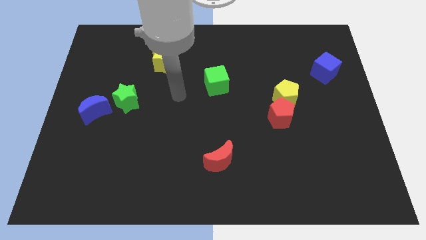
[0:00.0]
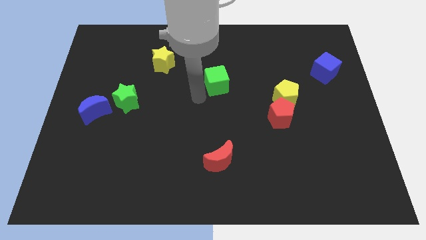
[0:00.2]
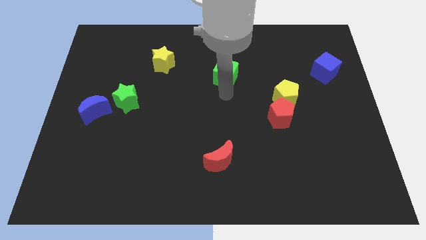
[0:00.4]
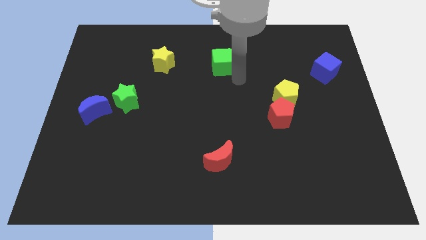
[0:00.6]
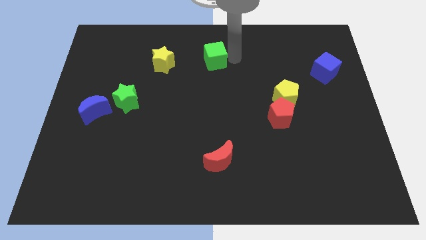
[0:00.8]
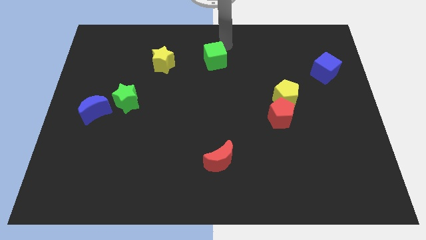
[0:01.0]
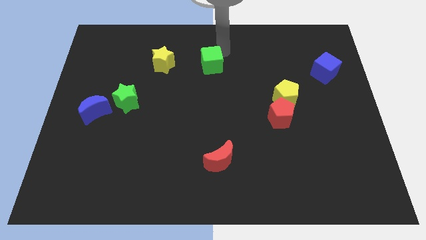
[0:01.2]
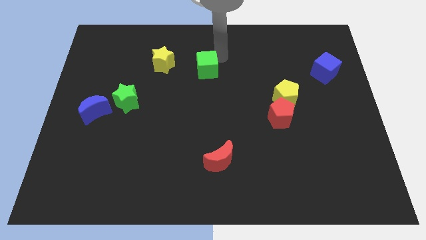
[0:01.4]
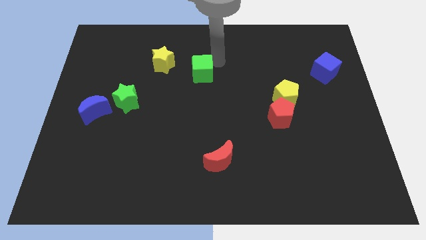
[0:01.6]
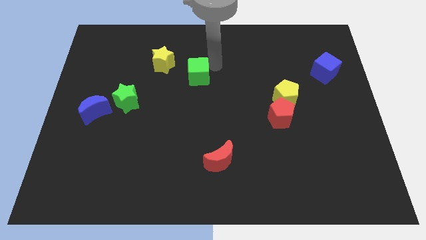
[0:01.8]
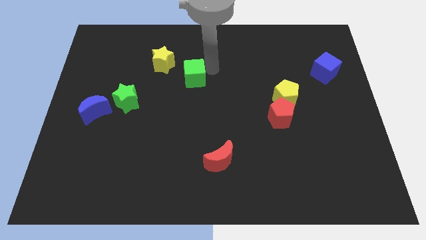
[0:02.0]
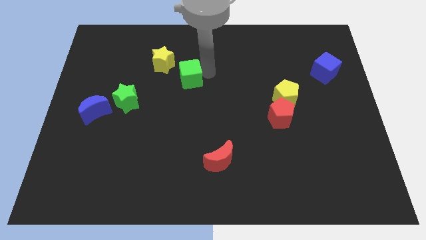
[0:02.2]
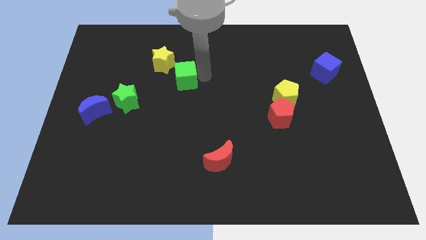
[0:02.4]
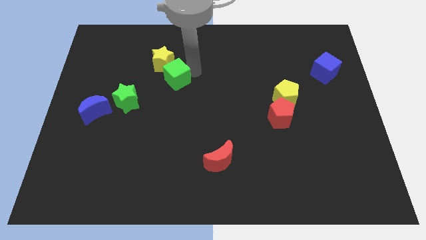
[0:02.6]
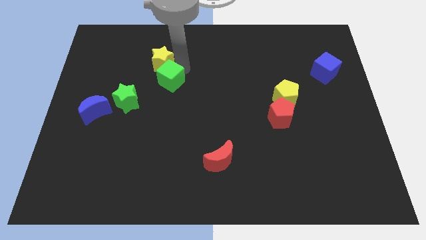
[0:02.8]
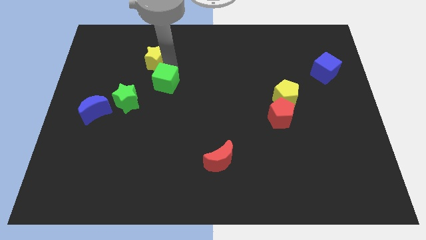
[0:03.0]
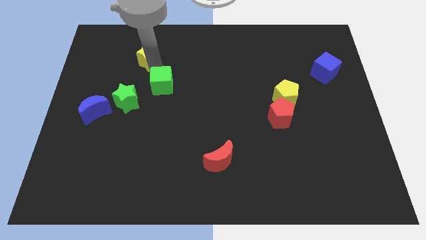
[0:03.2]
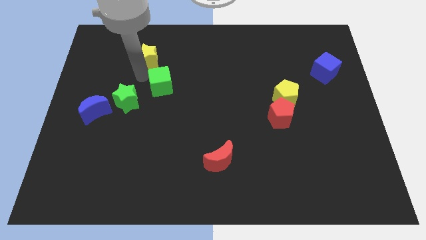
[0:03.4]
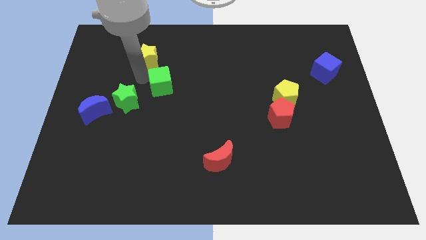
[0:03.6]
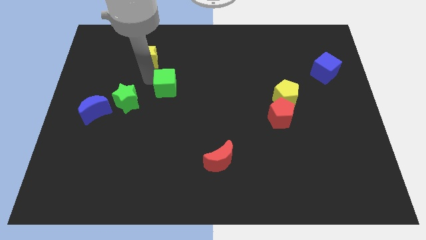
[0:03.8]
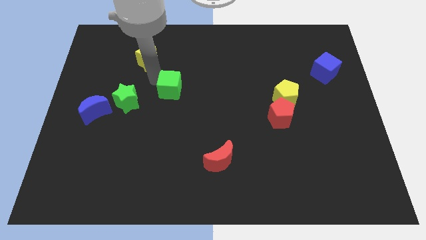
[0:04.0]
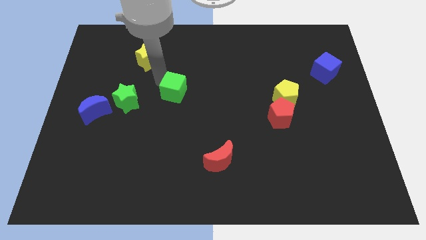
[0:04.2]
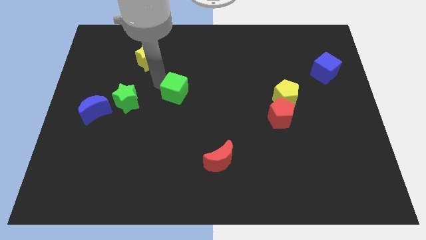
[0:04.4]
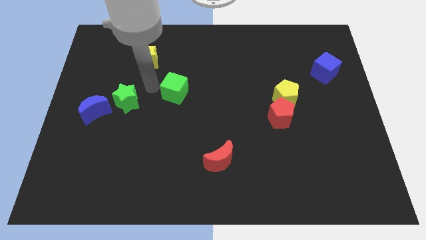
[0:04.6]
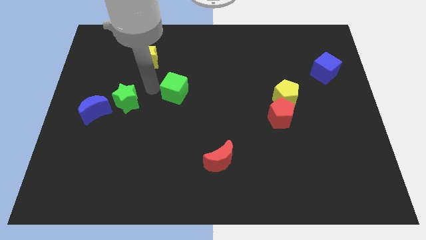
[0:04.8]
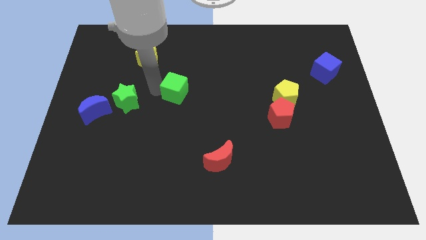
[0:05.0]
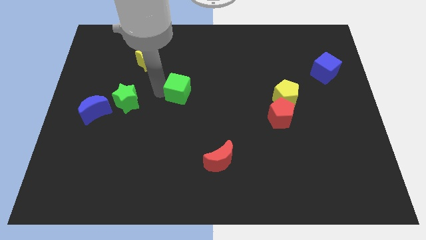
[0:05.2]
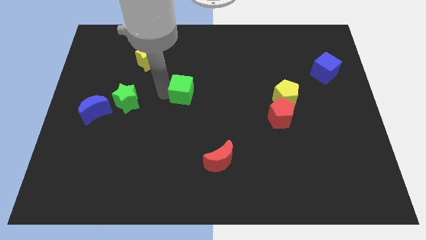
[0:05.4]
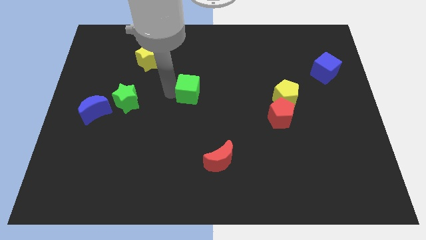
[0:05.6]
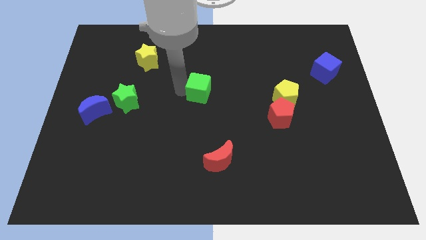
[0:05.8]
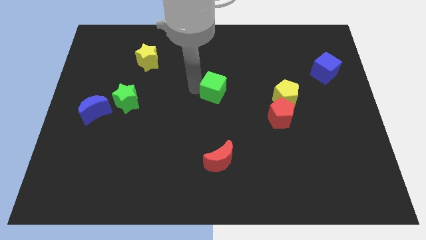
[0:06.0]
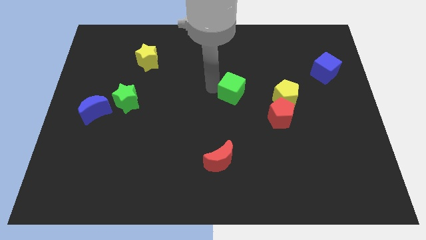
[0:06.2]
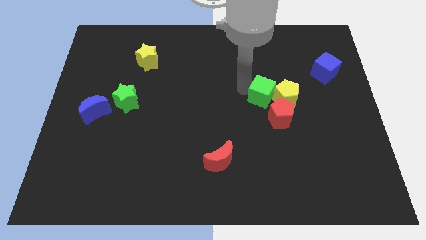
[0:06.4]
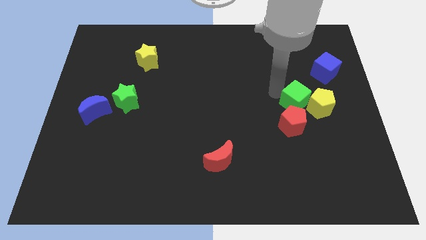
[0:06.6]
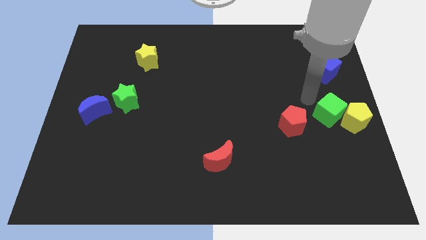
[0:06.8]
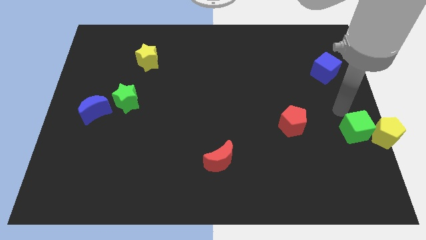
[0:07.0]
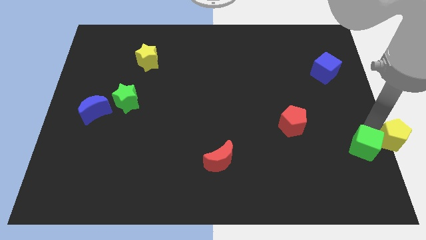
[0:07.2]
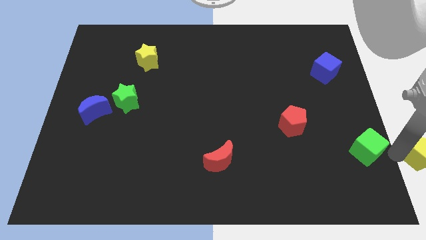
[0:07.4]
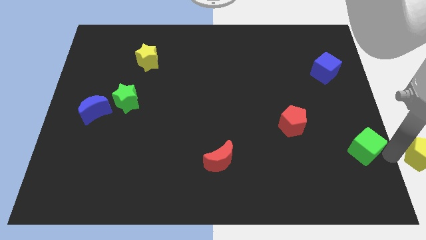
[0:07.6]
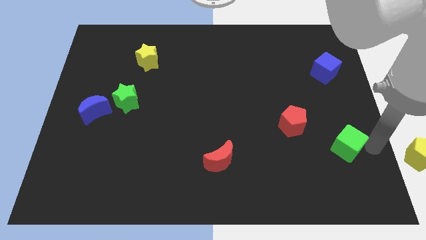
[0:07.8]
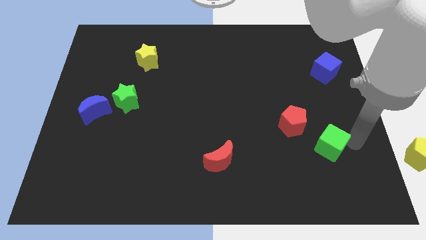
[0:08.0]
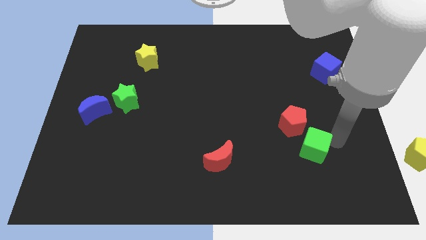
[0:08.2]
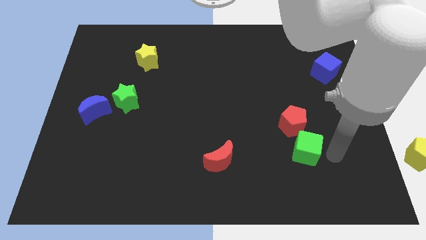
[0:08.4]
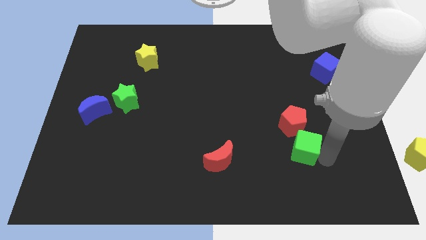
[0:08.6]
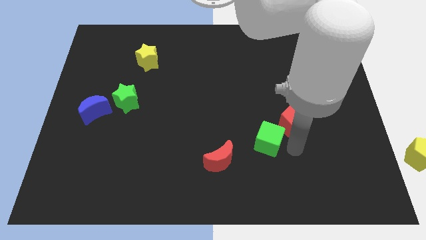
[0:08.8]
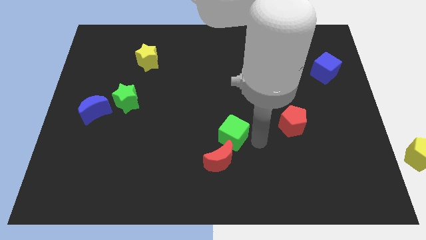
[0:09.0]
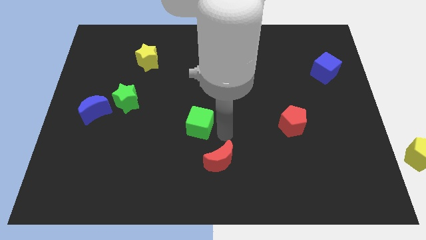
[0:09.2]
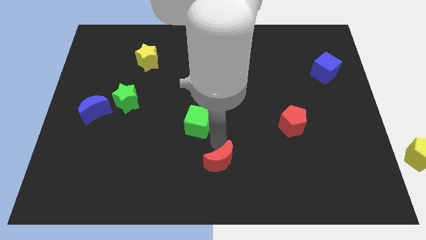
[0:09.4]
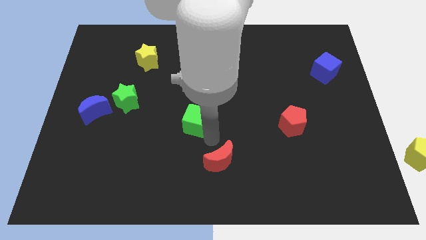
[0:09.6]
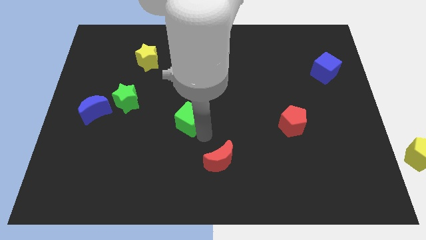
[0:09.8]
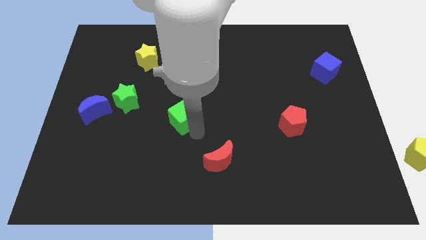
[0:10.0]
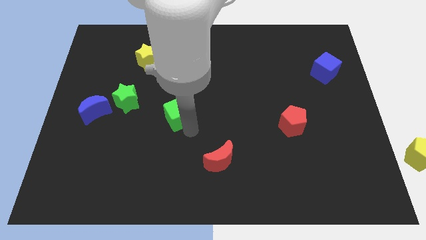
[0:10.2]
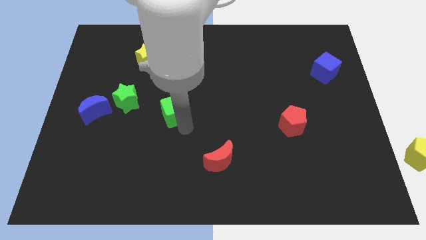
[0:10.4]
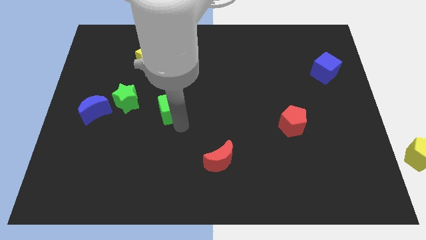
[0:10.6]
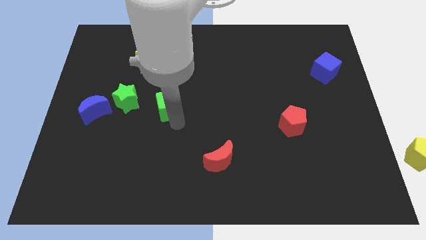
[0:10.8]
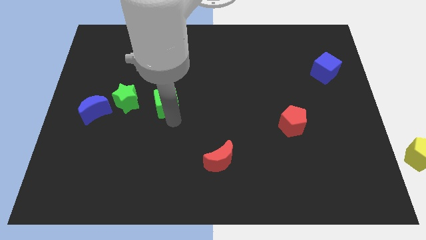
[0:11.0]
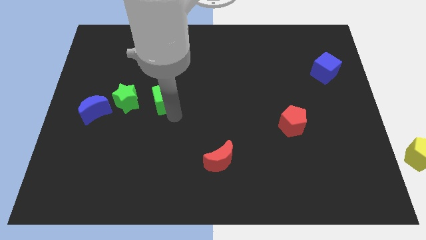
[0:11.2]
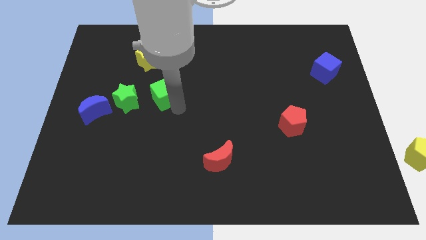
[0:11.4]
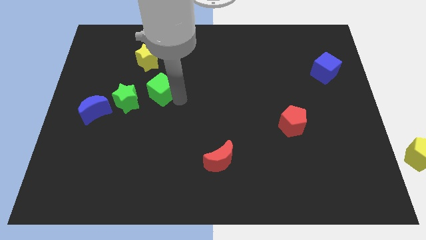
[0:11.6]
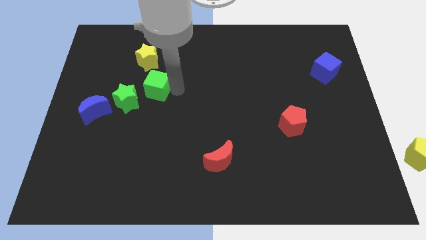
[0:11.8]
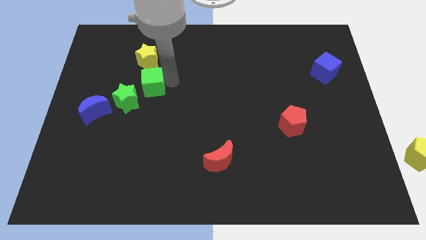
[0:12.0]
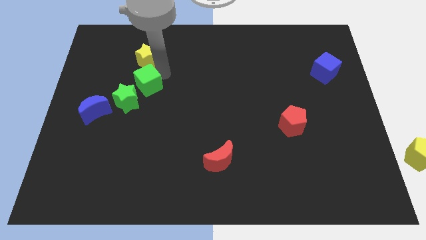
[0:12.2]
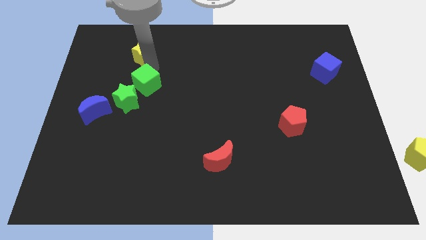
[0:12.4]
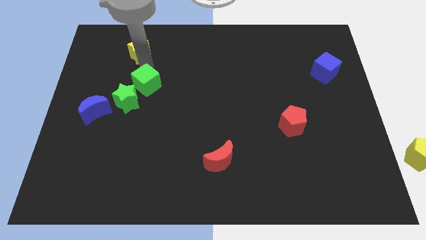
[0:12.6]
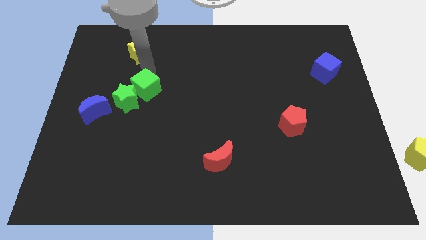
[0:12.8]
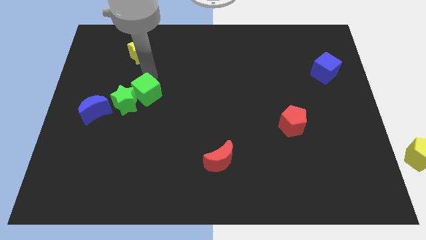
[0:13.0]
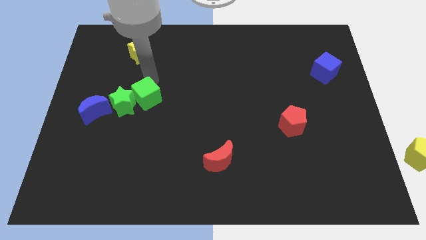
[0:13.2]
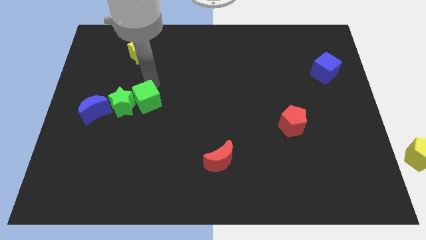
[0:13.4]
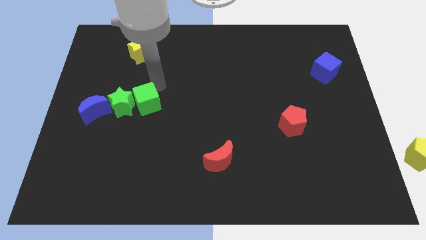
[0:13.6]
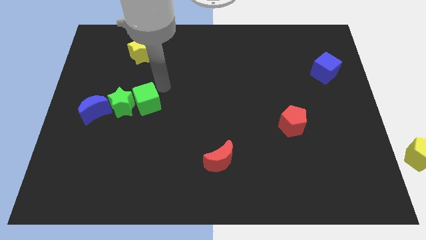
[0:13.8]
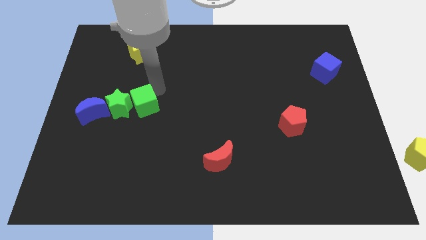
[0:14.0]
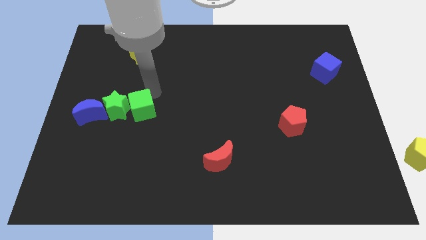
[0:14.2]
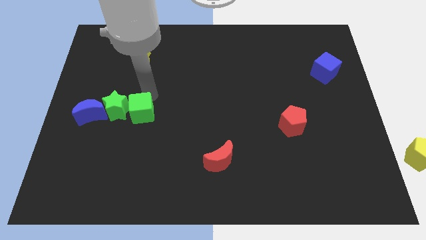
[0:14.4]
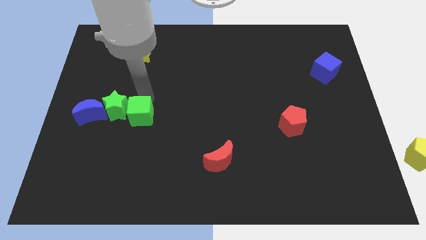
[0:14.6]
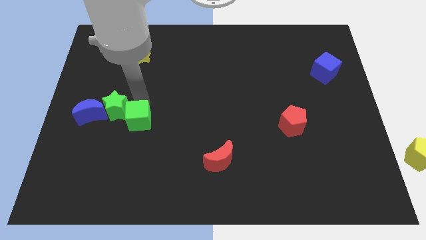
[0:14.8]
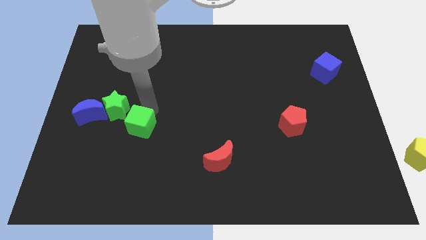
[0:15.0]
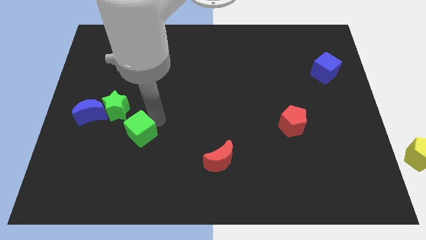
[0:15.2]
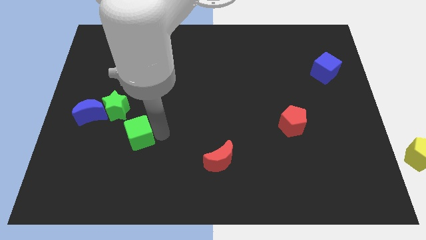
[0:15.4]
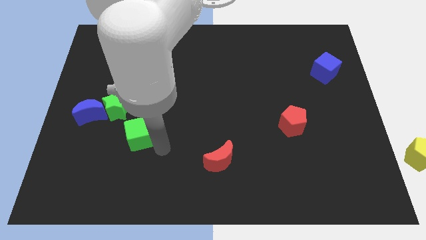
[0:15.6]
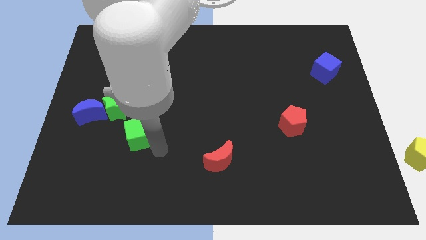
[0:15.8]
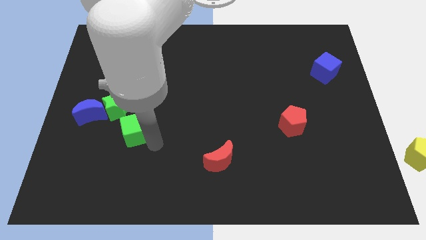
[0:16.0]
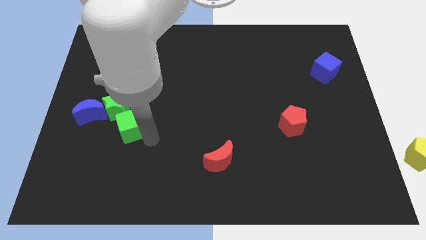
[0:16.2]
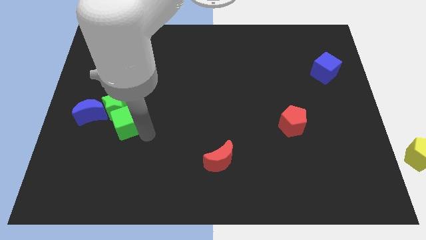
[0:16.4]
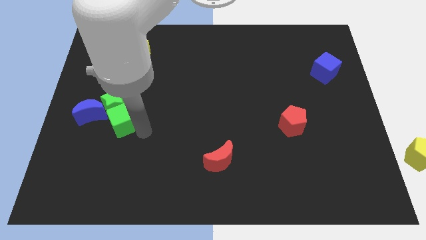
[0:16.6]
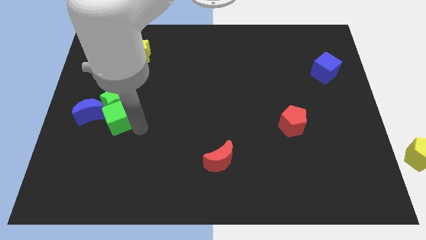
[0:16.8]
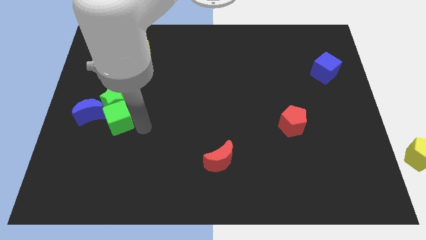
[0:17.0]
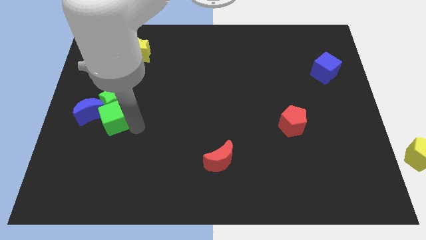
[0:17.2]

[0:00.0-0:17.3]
push the green cube to the blue moon
